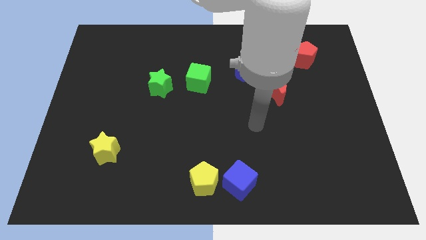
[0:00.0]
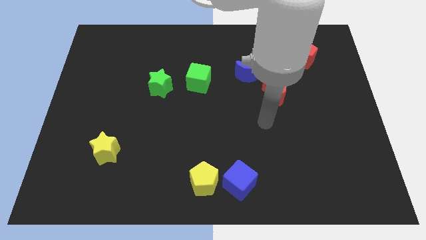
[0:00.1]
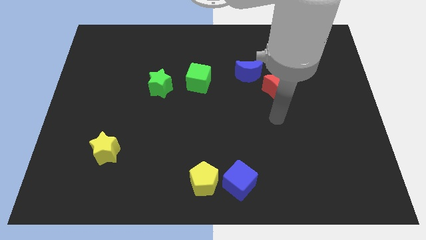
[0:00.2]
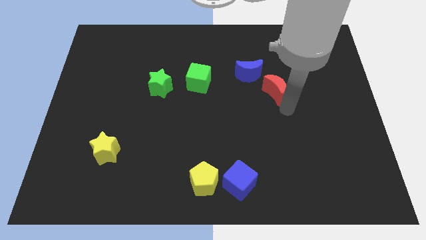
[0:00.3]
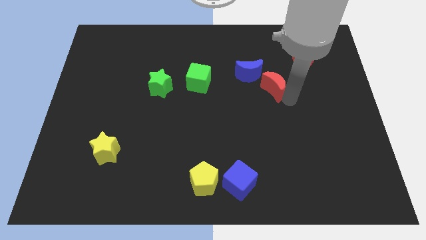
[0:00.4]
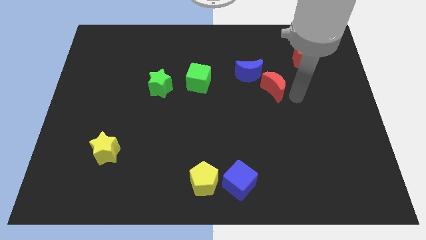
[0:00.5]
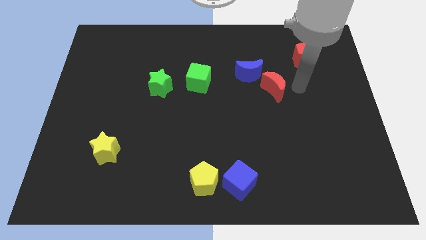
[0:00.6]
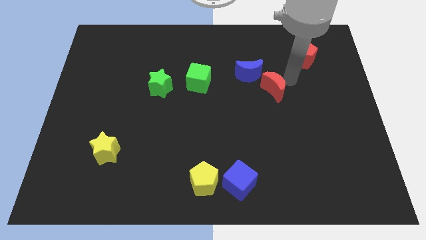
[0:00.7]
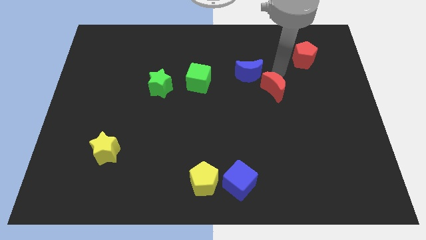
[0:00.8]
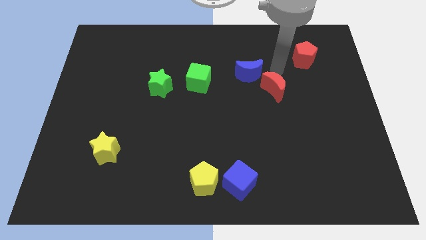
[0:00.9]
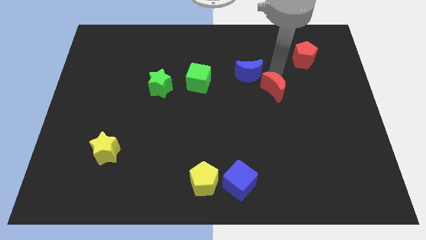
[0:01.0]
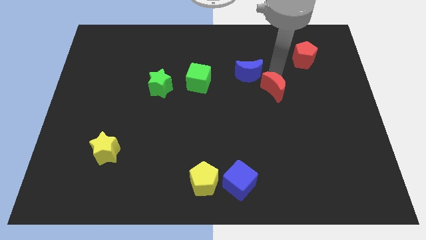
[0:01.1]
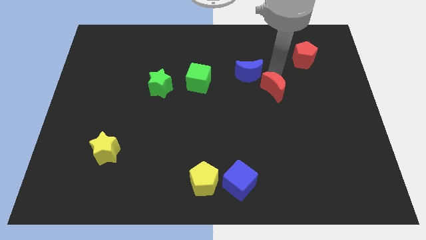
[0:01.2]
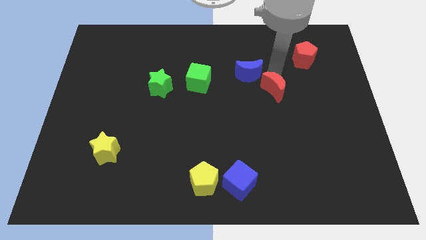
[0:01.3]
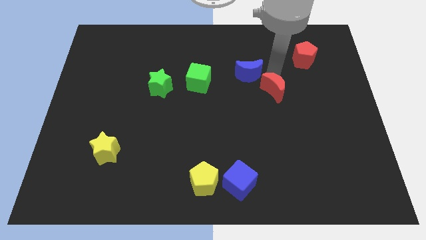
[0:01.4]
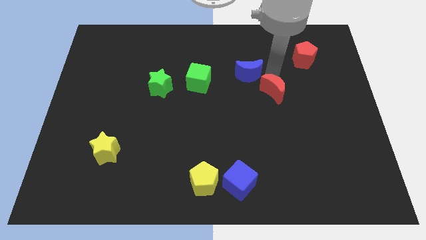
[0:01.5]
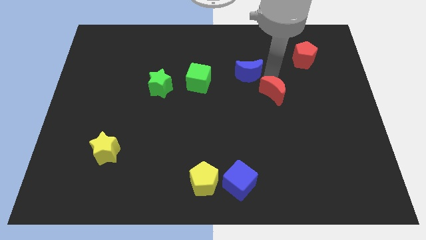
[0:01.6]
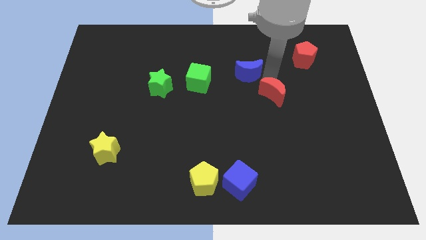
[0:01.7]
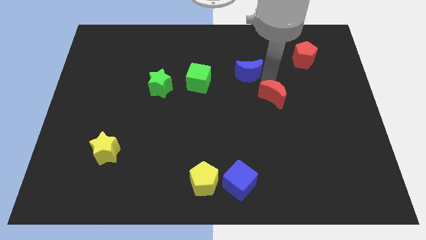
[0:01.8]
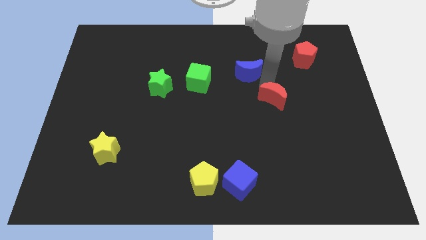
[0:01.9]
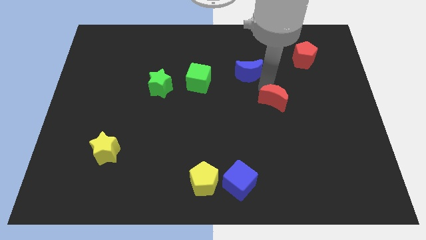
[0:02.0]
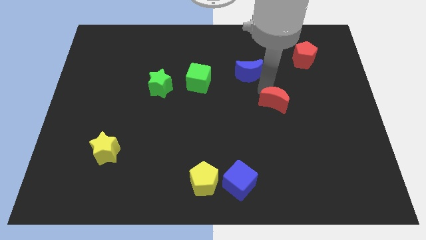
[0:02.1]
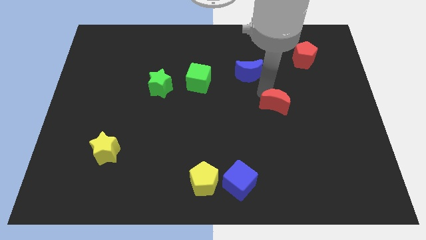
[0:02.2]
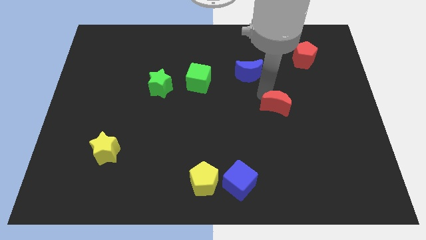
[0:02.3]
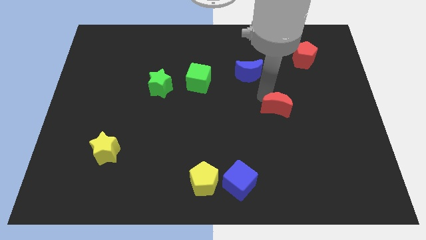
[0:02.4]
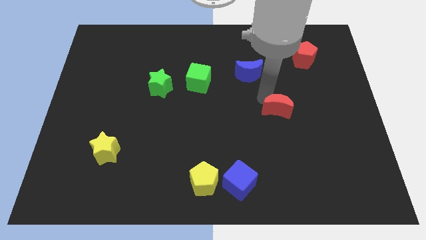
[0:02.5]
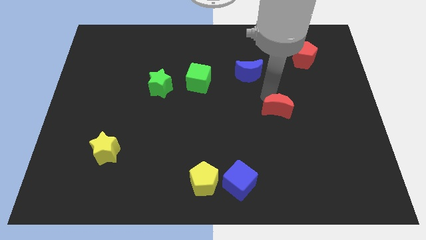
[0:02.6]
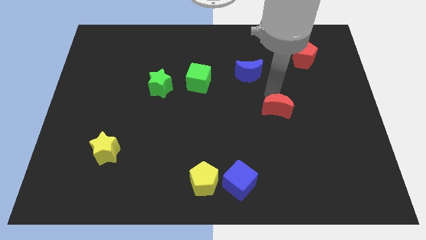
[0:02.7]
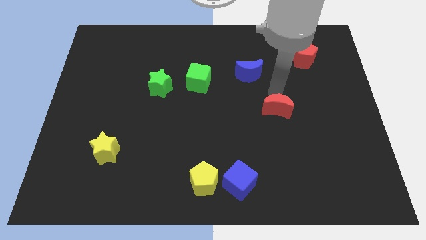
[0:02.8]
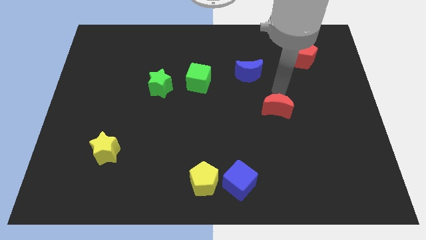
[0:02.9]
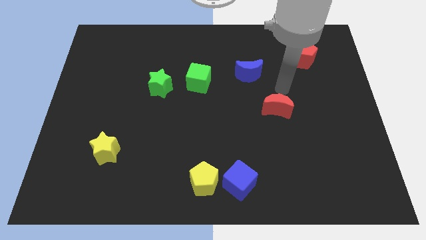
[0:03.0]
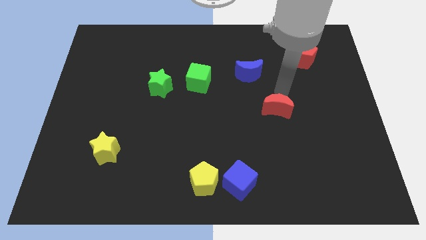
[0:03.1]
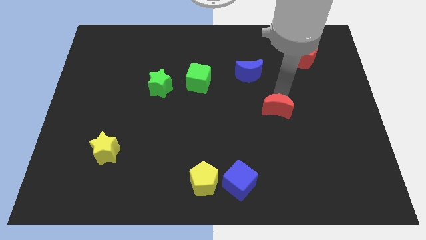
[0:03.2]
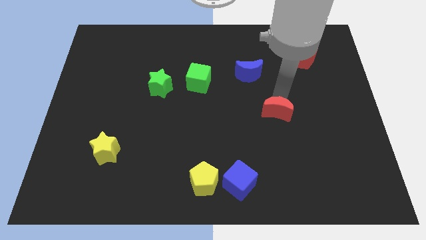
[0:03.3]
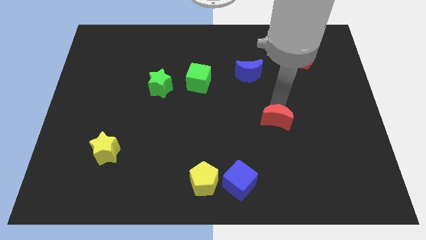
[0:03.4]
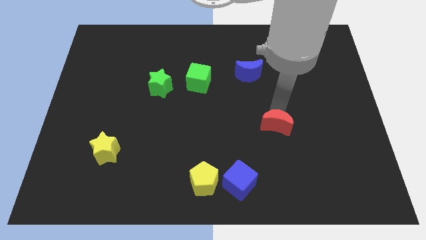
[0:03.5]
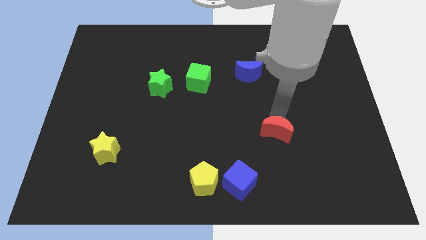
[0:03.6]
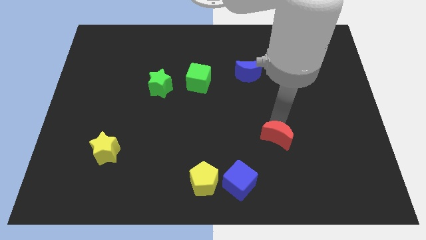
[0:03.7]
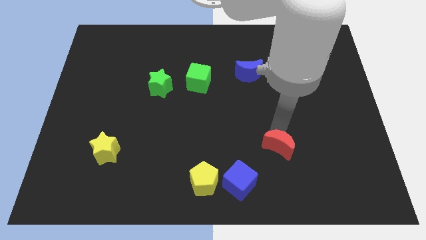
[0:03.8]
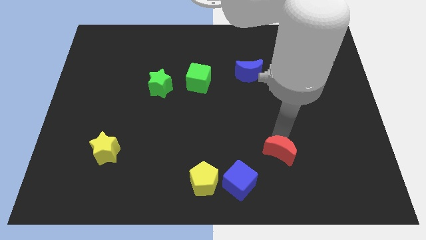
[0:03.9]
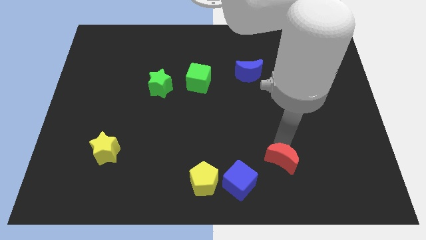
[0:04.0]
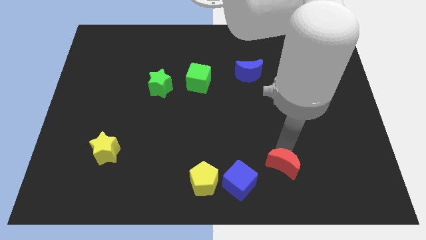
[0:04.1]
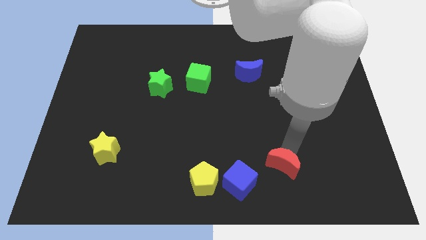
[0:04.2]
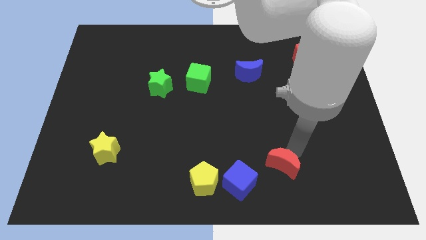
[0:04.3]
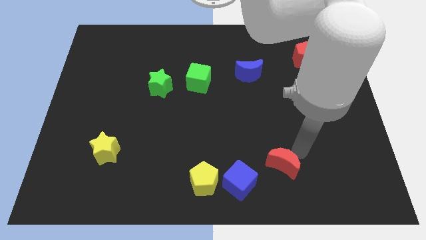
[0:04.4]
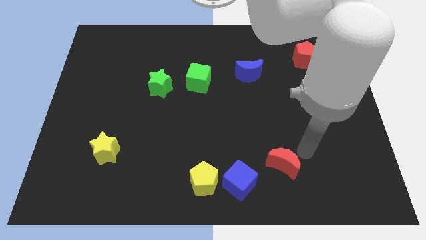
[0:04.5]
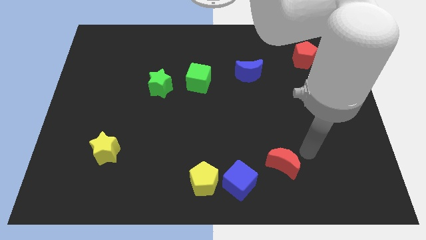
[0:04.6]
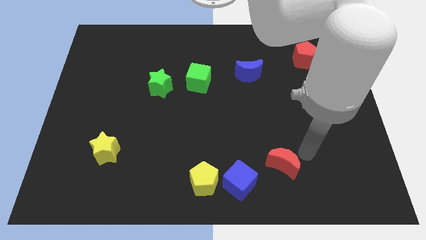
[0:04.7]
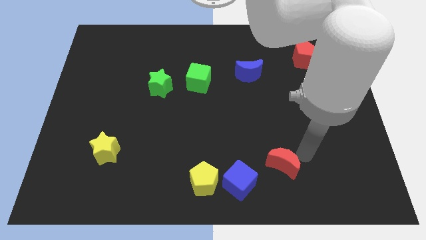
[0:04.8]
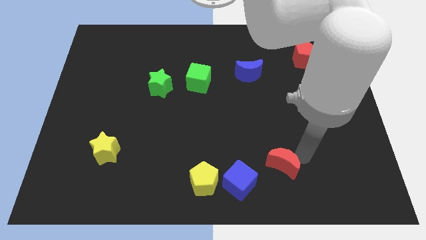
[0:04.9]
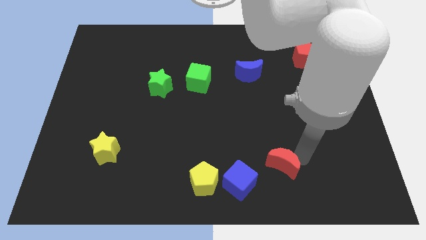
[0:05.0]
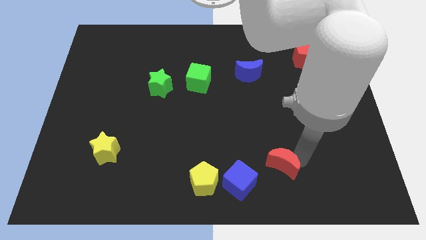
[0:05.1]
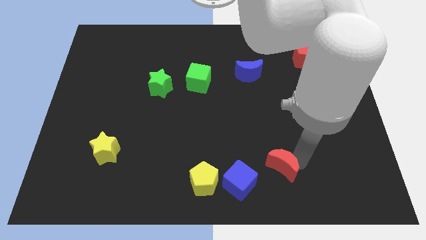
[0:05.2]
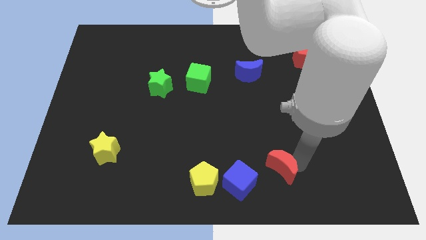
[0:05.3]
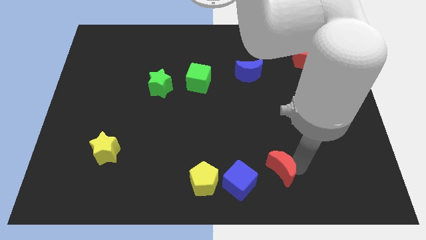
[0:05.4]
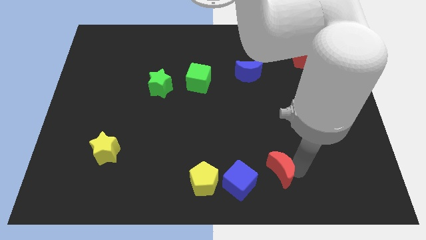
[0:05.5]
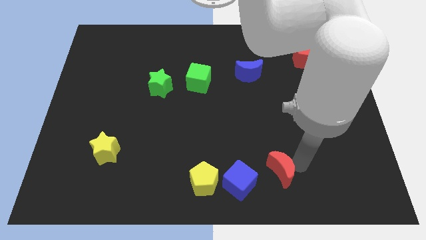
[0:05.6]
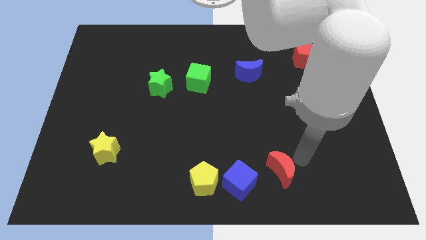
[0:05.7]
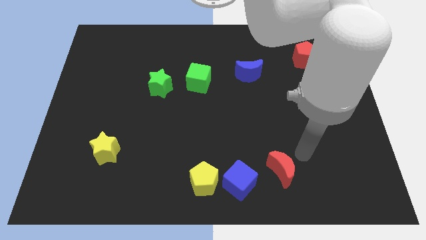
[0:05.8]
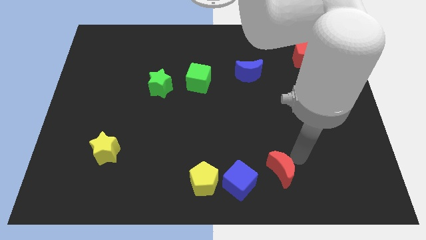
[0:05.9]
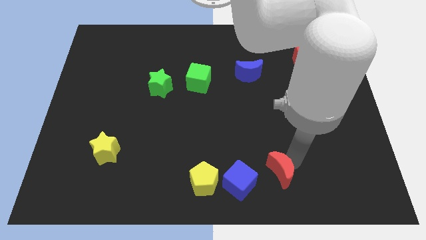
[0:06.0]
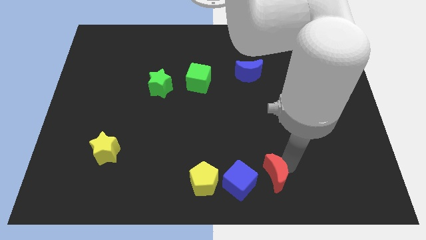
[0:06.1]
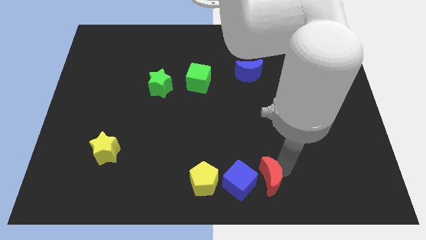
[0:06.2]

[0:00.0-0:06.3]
put the red moon to the bottom

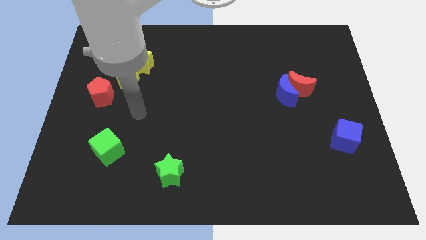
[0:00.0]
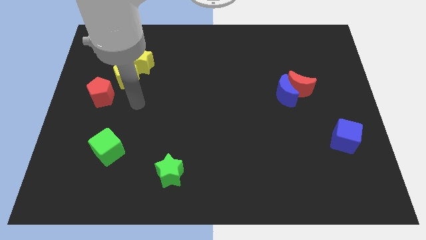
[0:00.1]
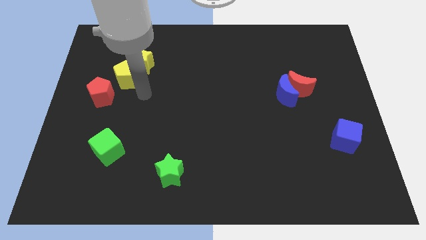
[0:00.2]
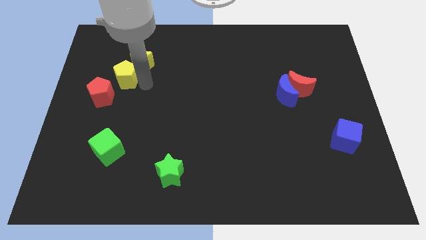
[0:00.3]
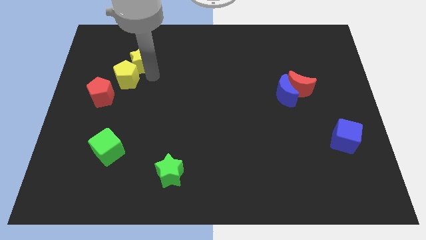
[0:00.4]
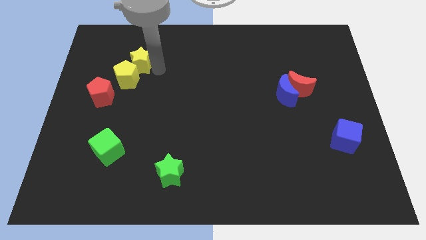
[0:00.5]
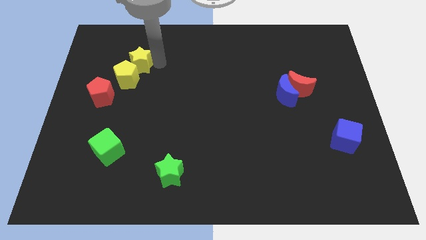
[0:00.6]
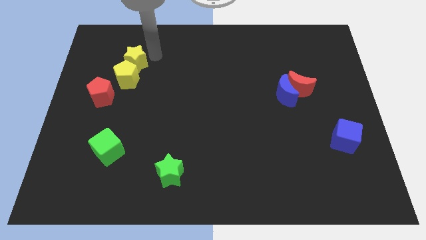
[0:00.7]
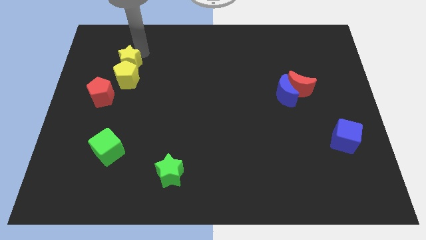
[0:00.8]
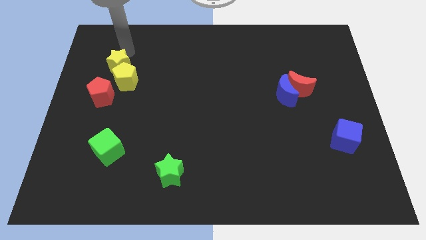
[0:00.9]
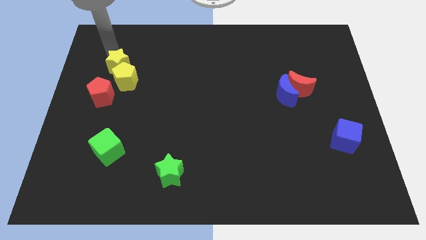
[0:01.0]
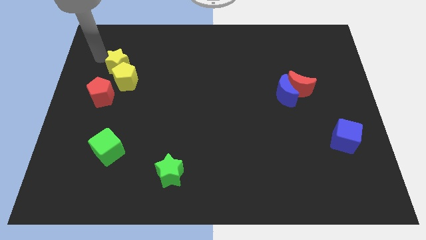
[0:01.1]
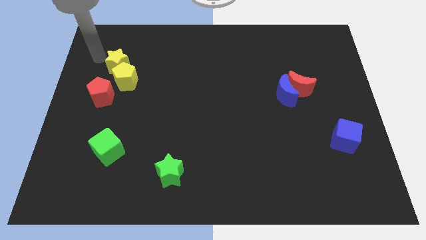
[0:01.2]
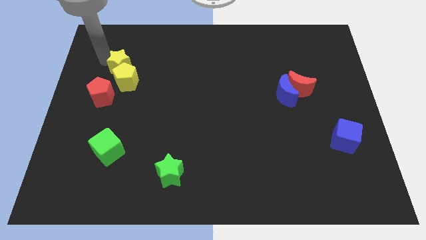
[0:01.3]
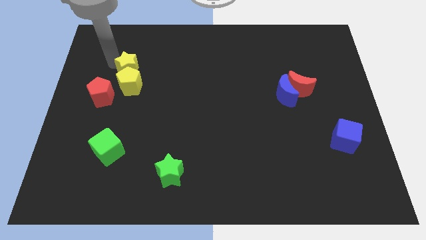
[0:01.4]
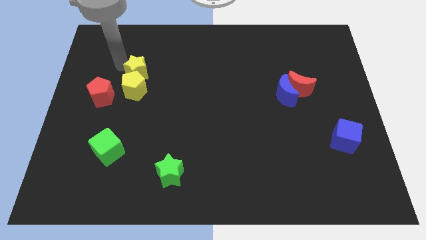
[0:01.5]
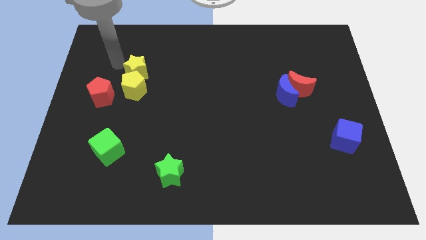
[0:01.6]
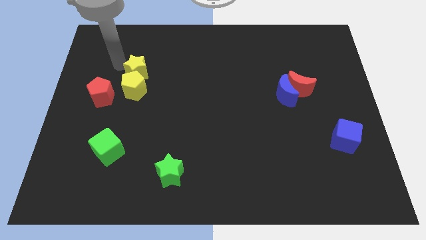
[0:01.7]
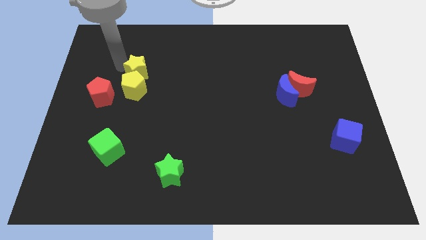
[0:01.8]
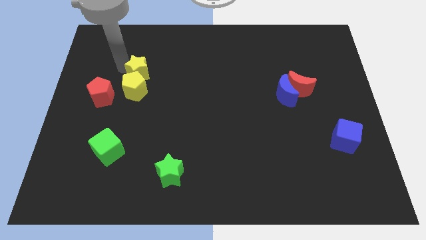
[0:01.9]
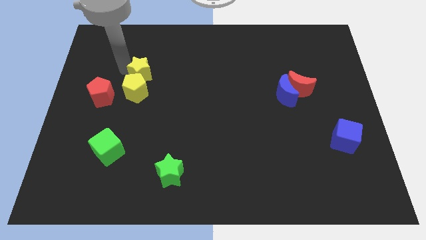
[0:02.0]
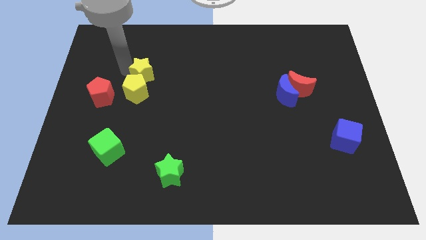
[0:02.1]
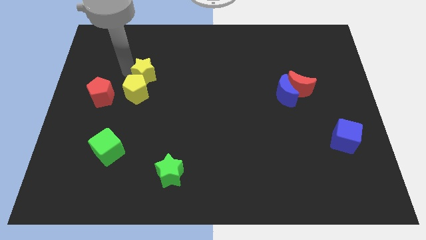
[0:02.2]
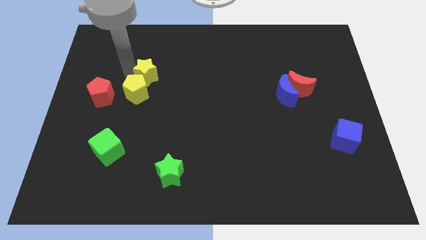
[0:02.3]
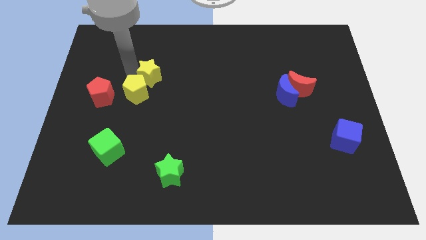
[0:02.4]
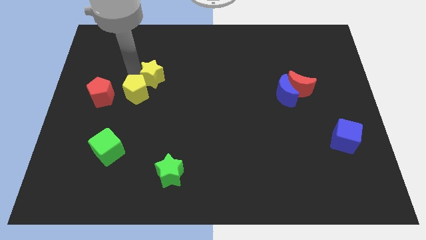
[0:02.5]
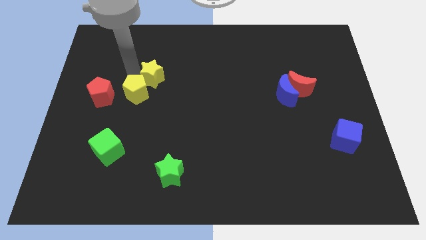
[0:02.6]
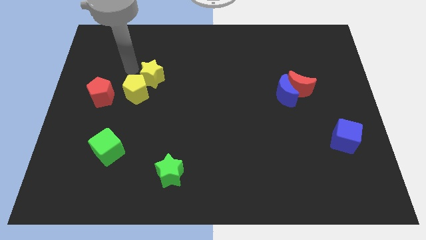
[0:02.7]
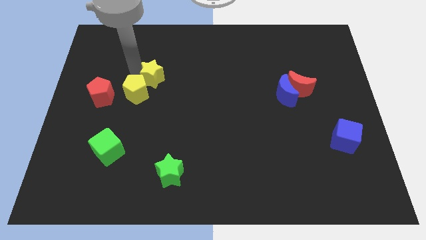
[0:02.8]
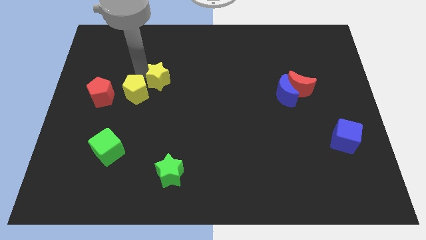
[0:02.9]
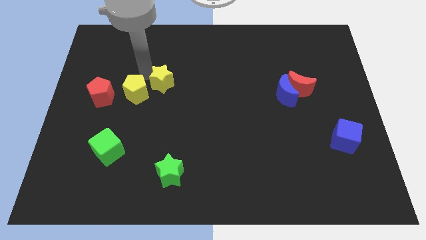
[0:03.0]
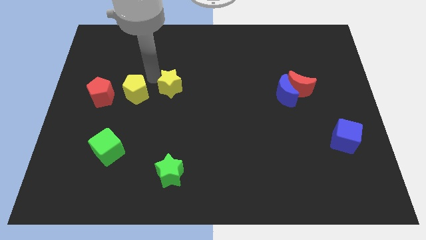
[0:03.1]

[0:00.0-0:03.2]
put the yellow star to the center
